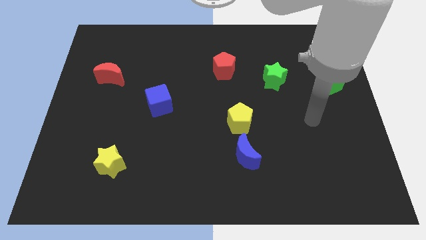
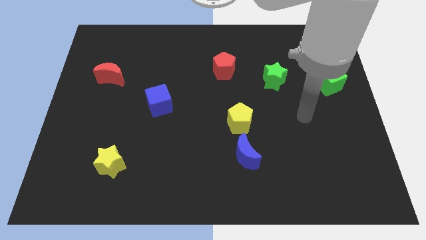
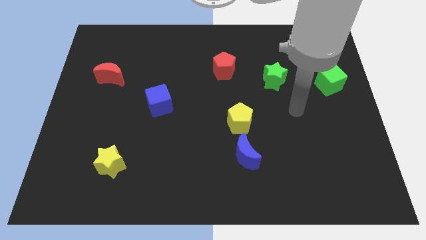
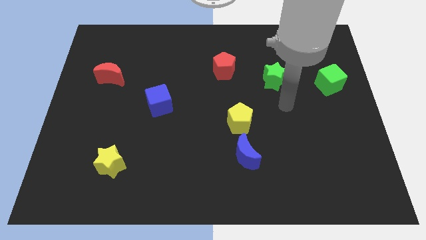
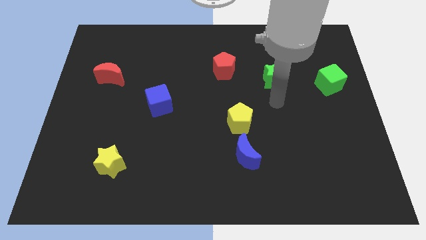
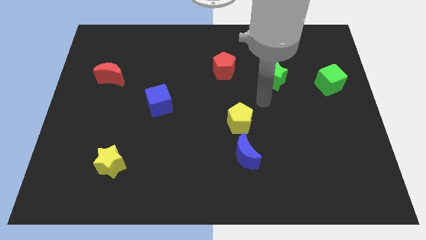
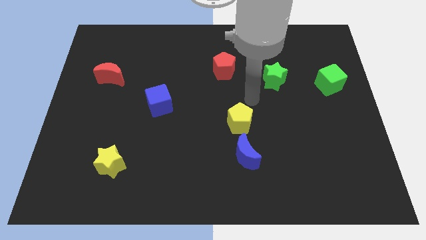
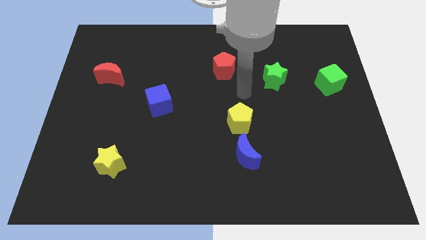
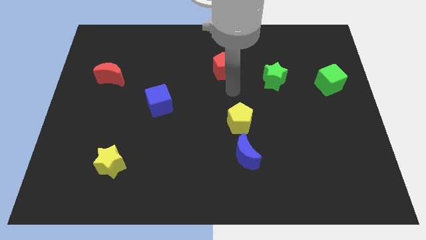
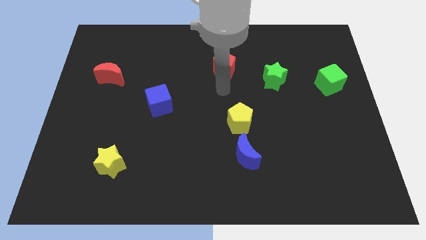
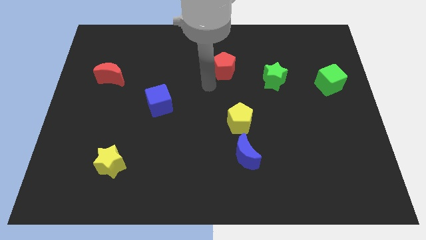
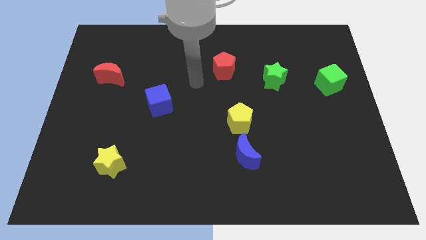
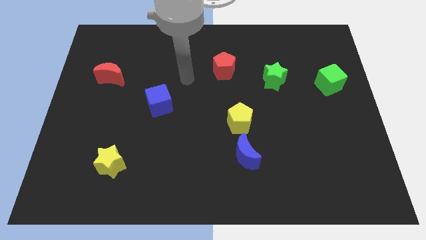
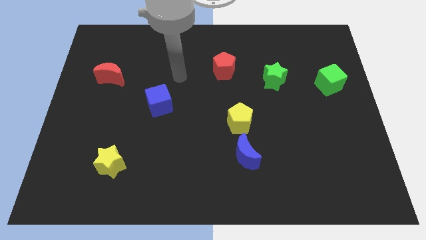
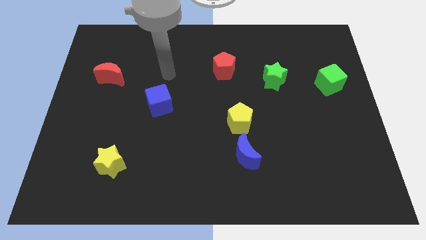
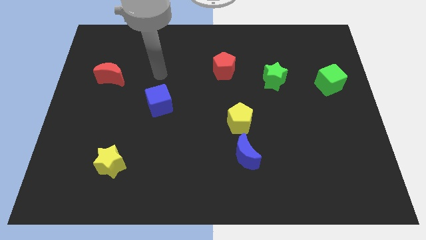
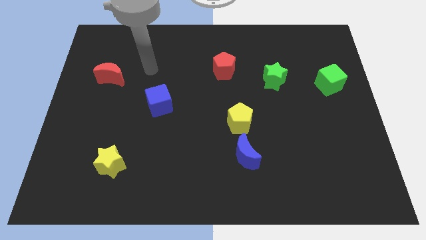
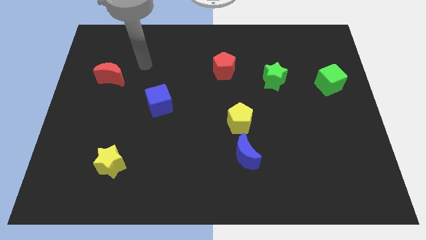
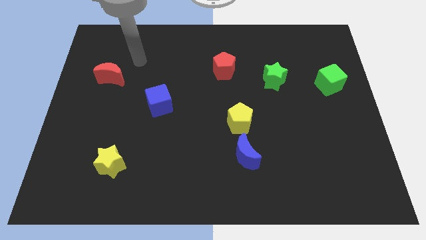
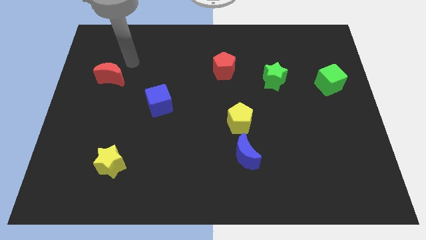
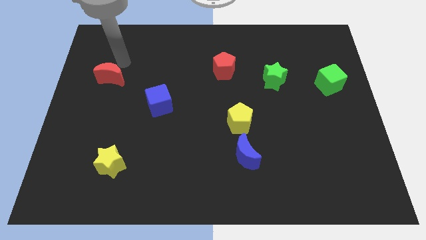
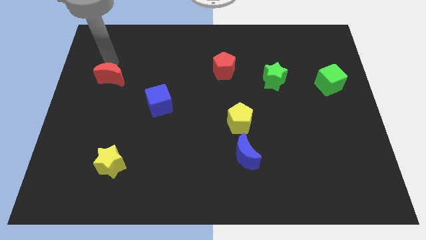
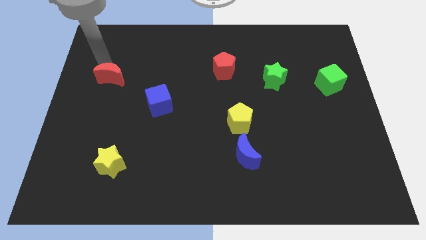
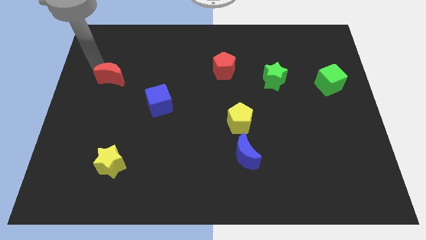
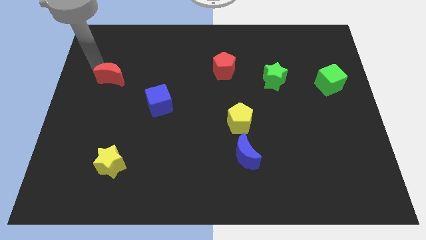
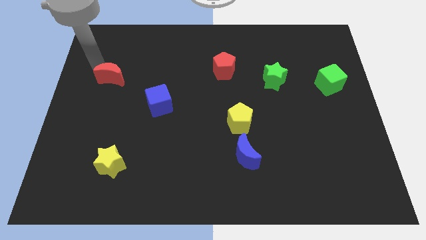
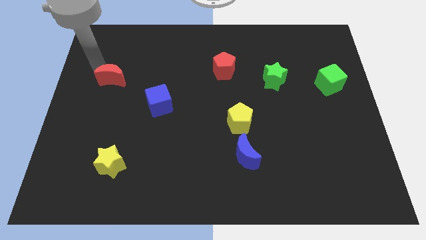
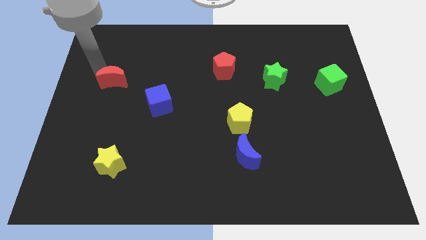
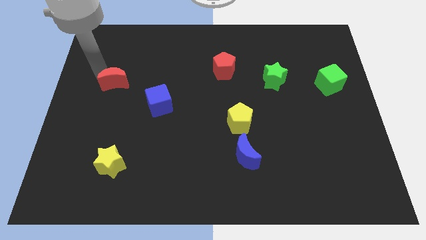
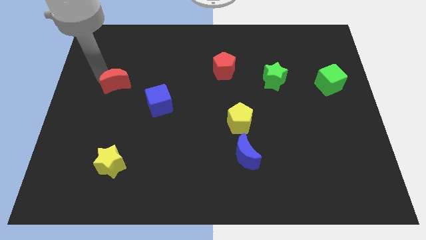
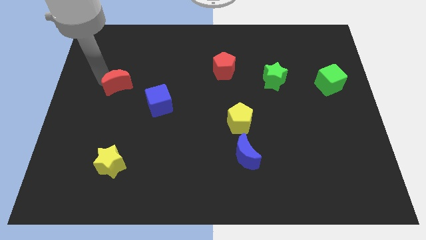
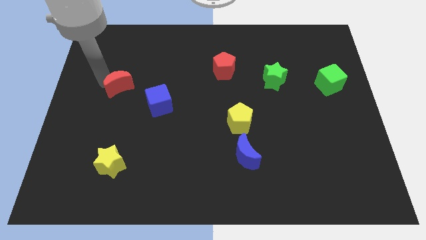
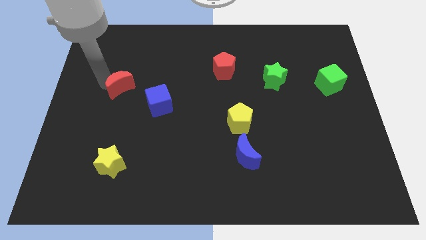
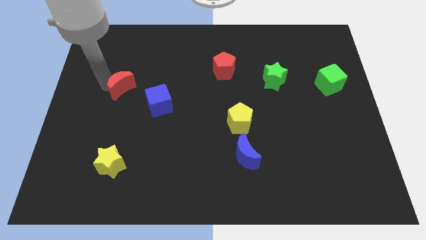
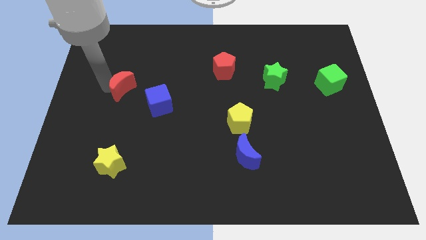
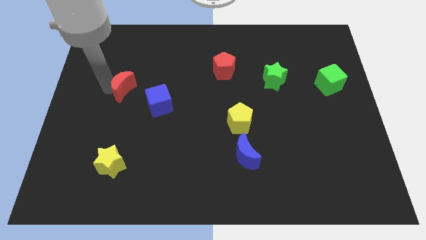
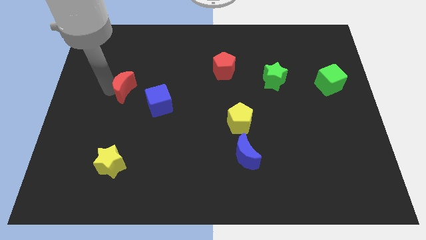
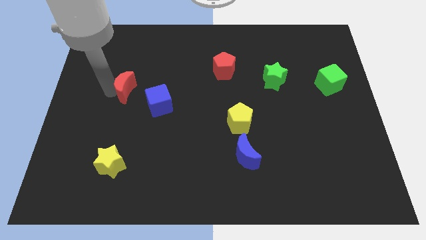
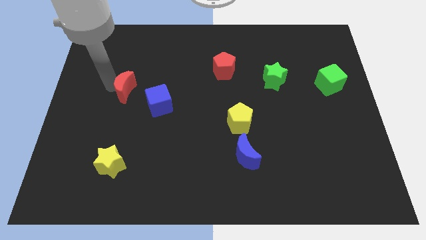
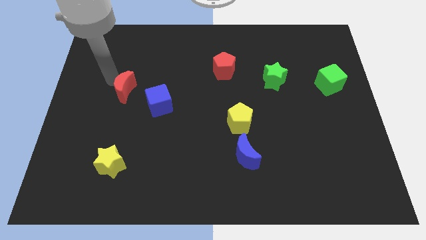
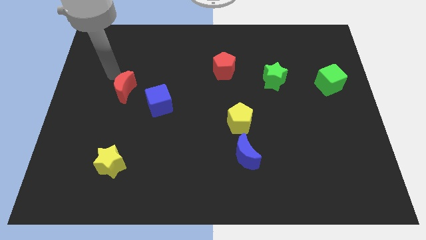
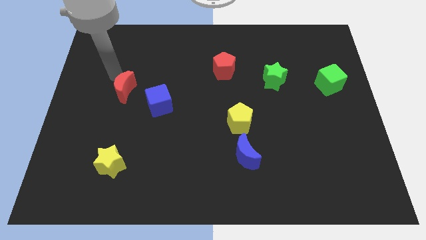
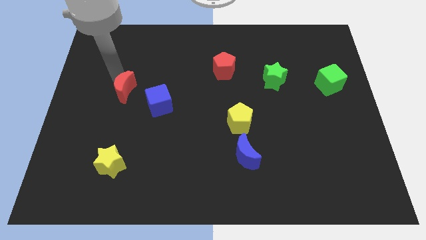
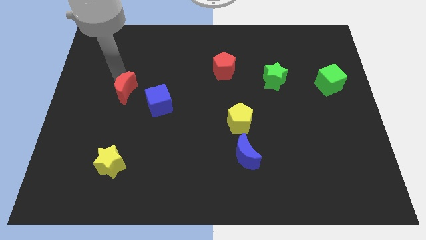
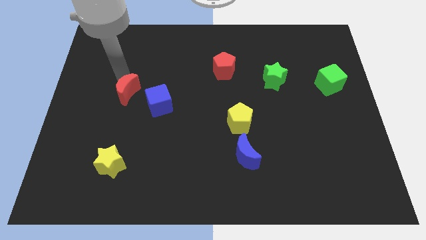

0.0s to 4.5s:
push the red moon slightly downwards and then right

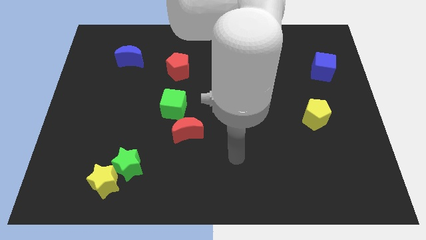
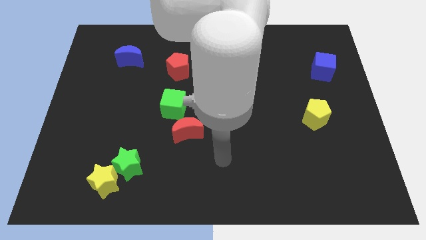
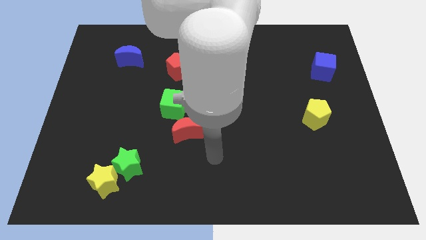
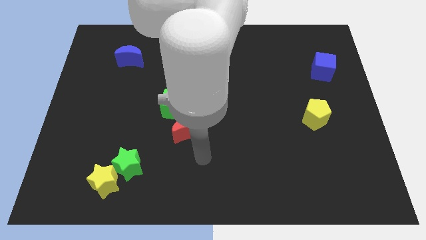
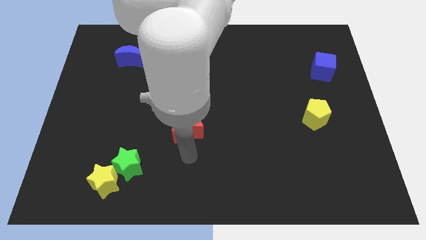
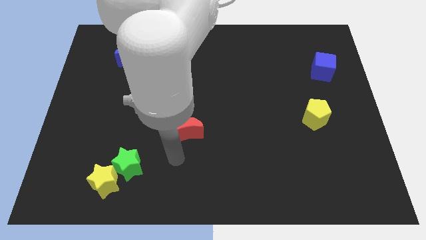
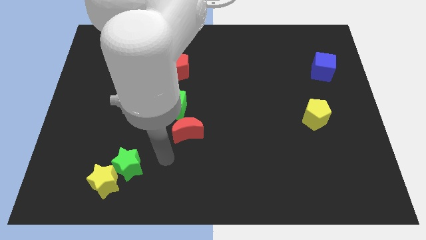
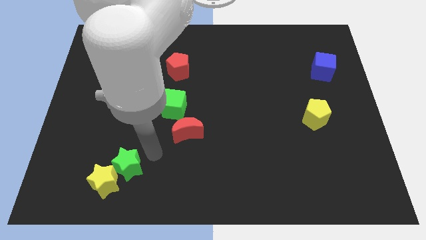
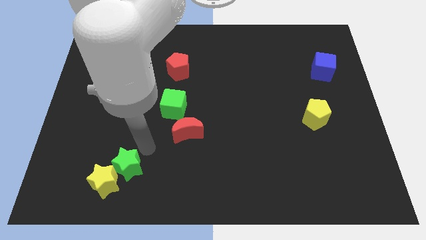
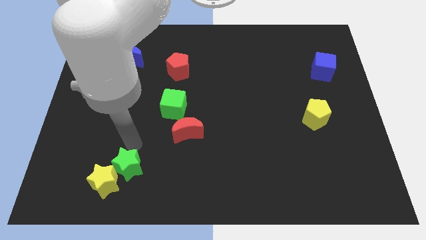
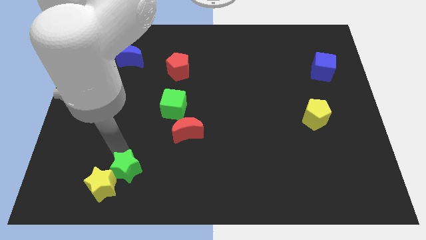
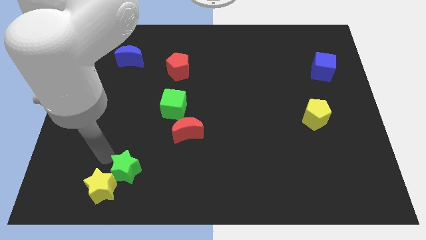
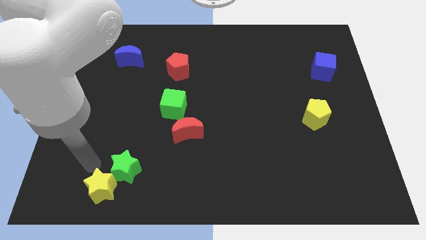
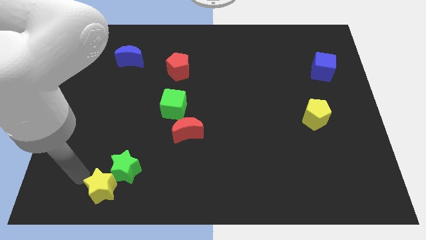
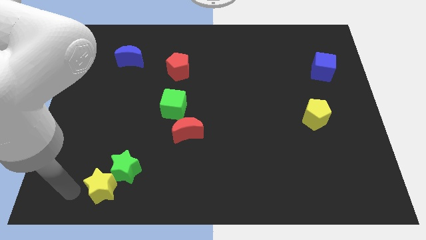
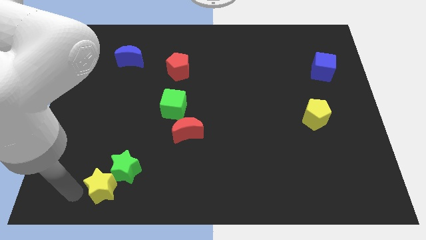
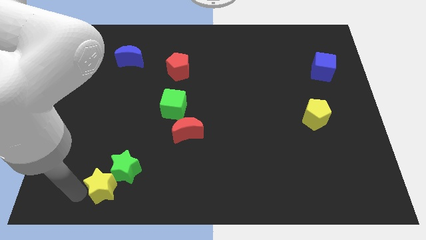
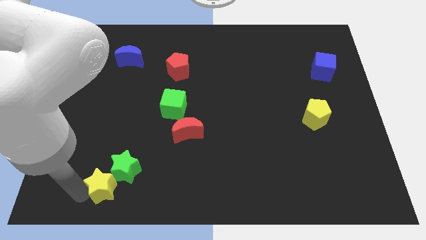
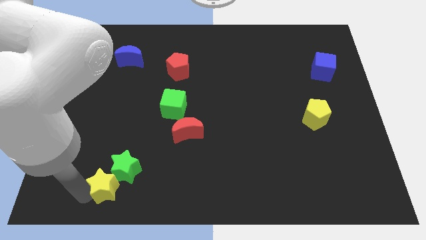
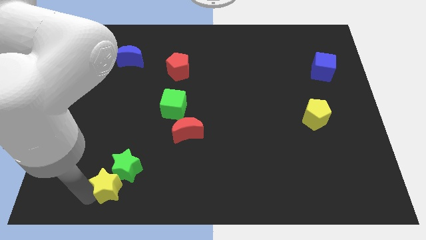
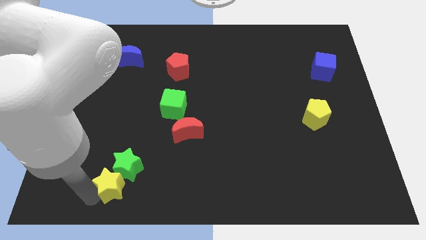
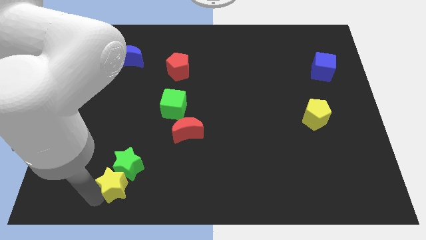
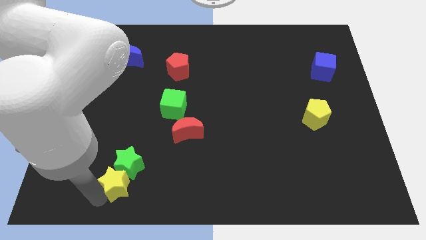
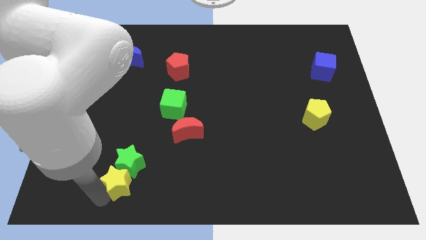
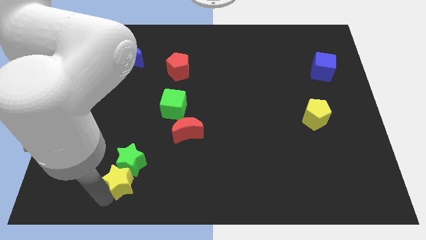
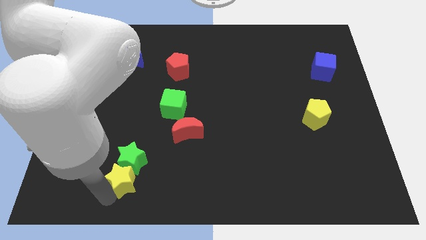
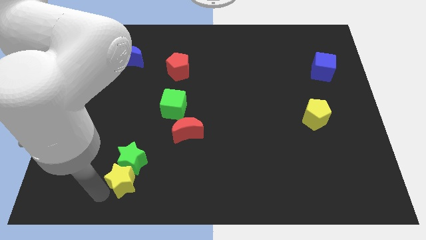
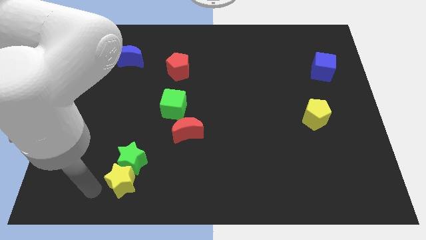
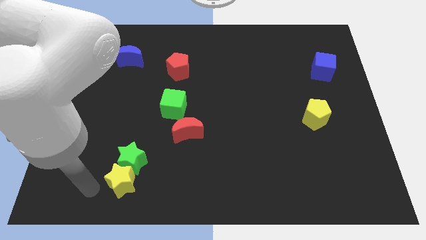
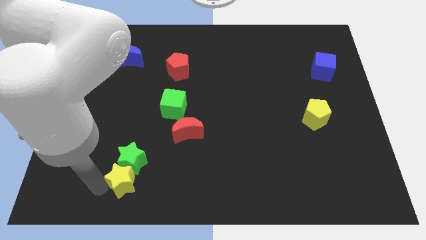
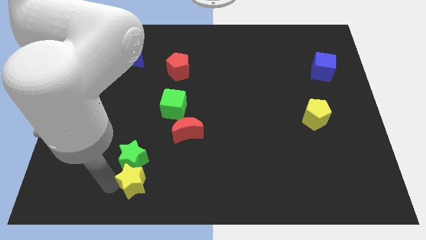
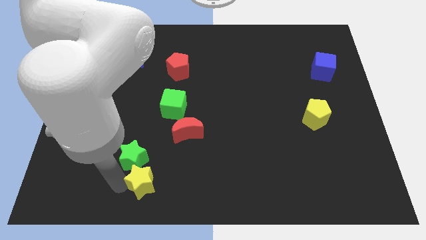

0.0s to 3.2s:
slightly slide the yellow star right

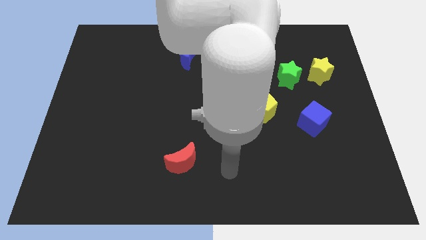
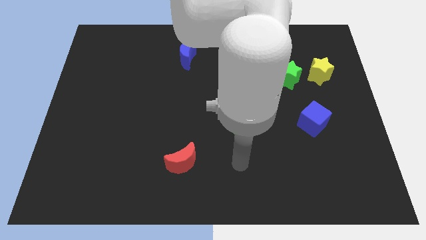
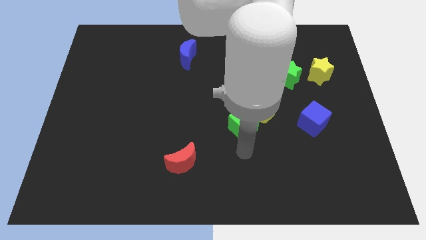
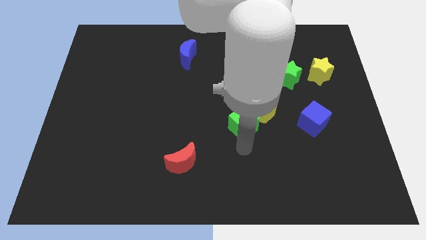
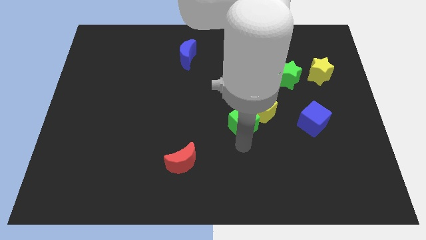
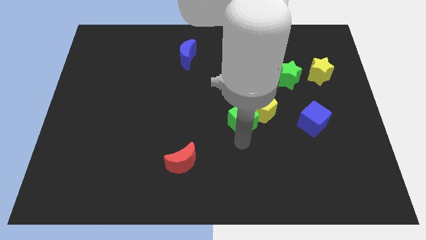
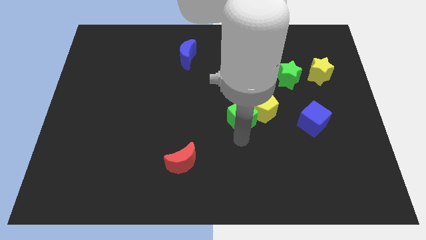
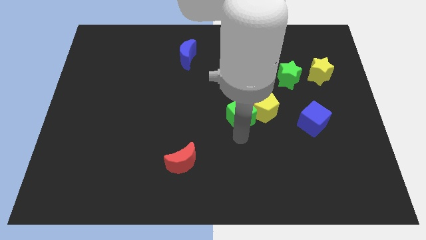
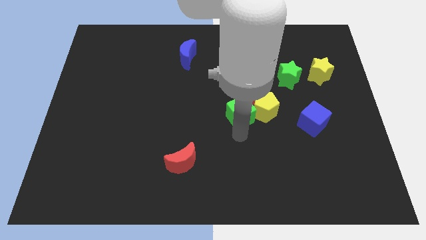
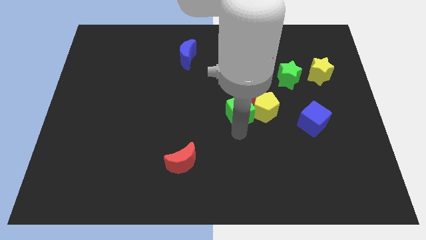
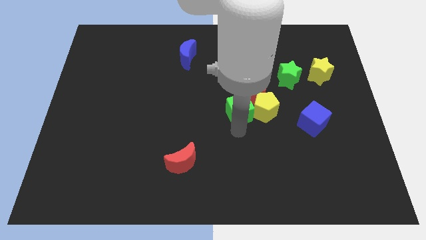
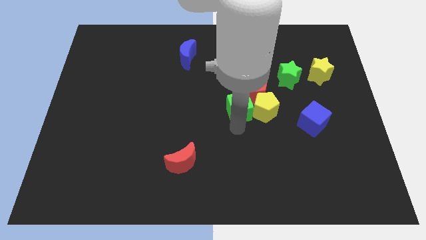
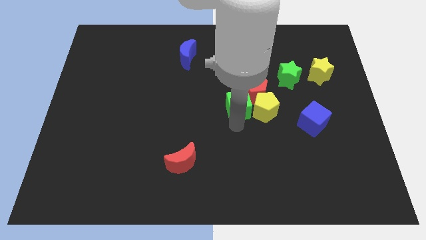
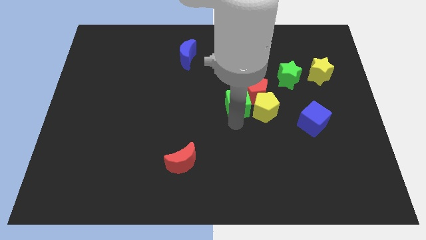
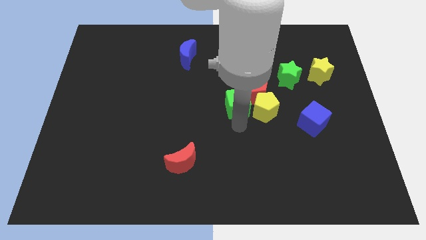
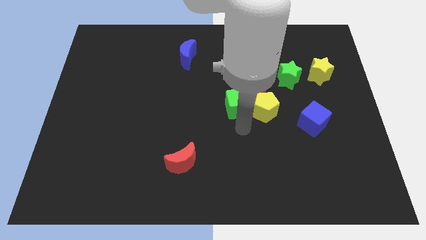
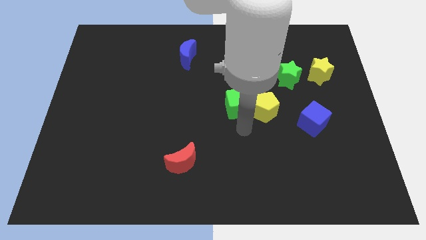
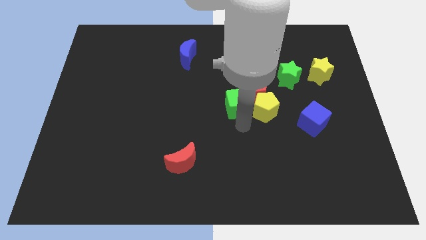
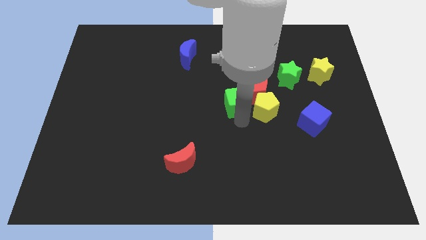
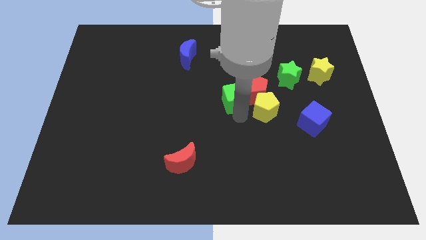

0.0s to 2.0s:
slide the green cube slightly up
